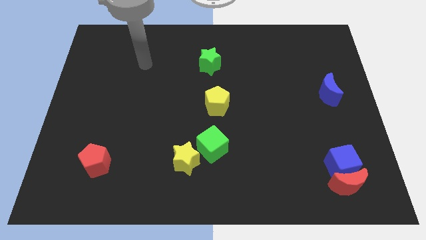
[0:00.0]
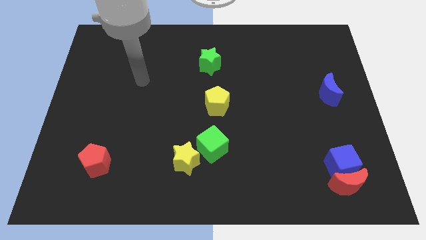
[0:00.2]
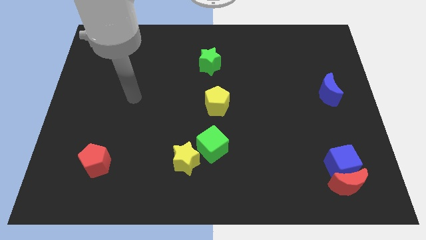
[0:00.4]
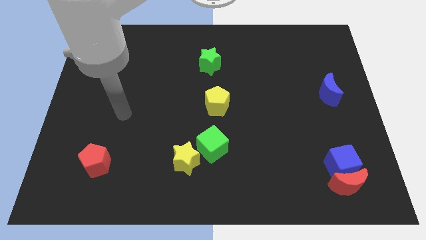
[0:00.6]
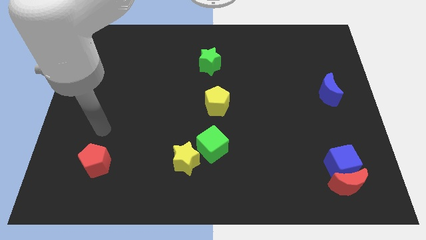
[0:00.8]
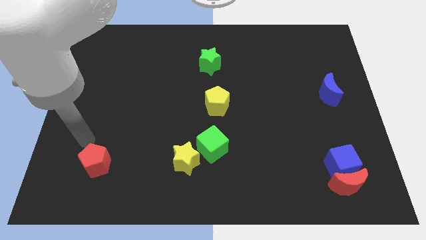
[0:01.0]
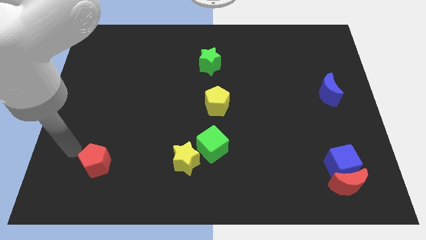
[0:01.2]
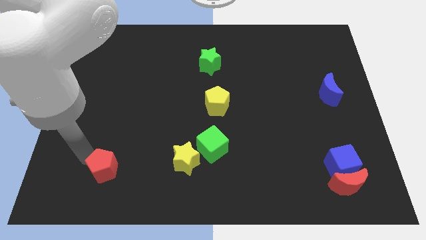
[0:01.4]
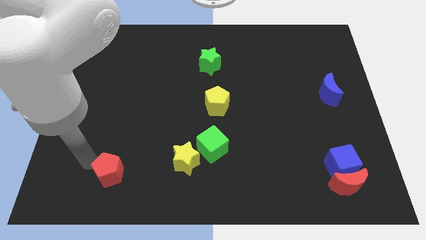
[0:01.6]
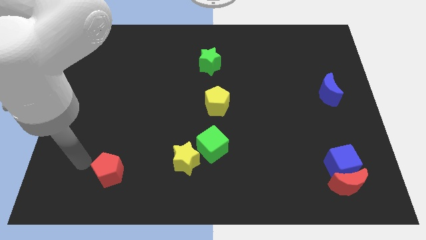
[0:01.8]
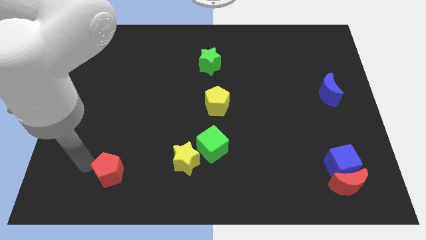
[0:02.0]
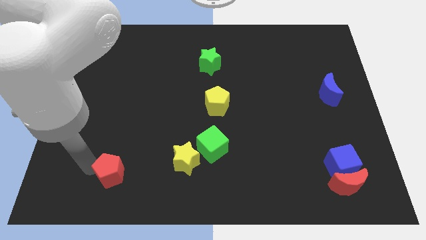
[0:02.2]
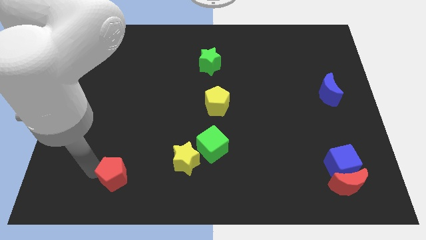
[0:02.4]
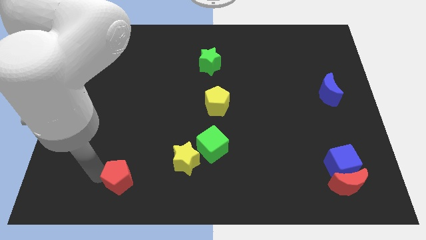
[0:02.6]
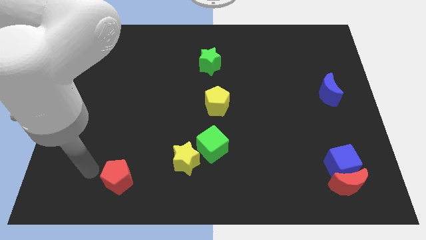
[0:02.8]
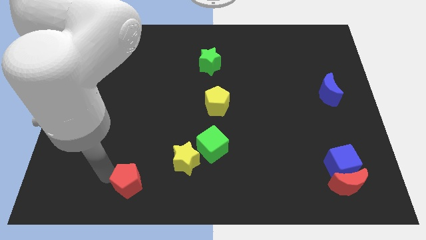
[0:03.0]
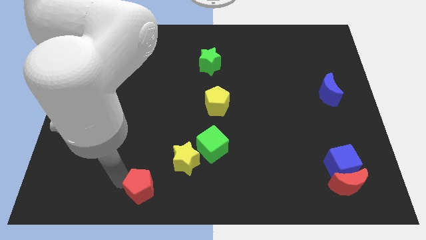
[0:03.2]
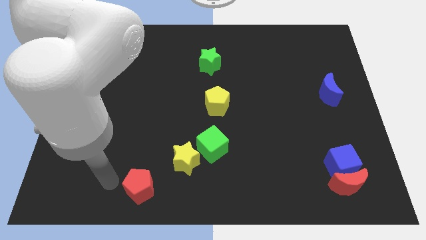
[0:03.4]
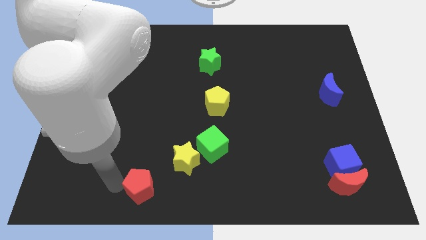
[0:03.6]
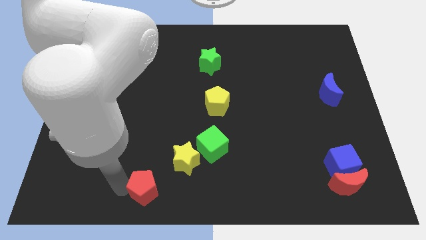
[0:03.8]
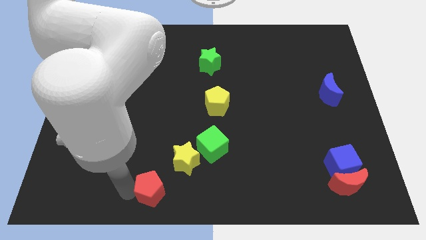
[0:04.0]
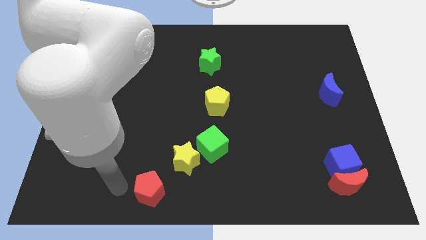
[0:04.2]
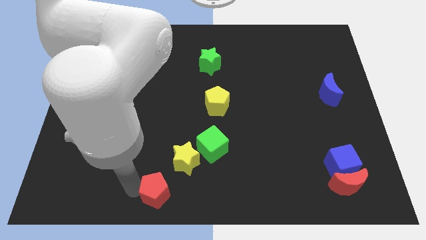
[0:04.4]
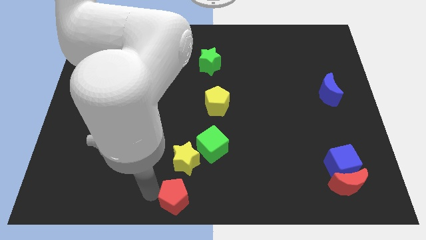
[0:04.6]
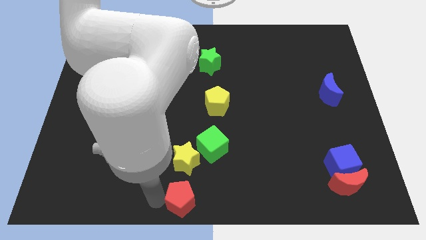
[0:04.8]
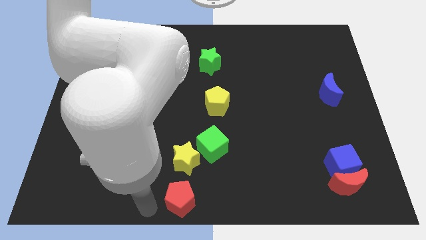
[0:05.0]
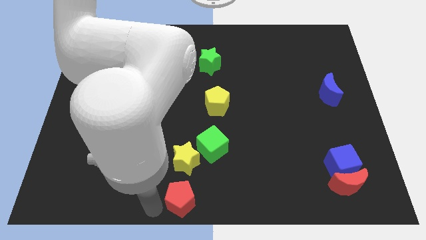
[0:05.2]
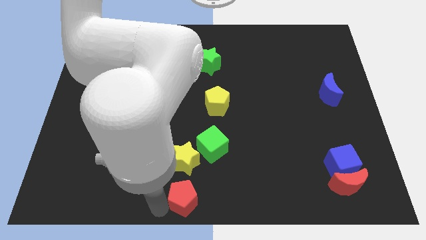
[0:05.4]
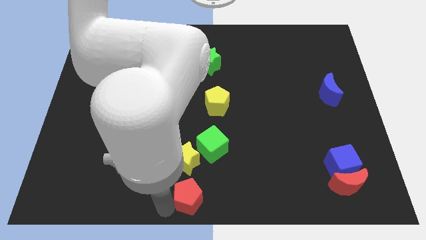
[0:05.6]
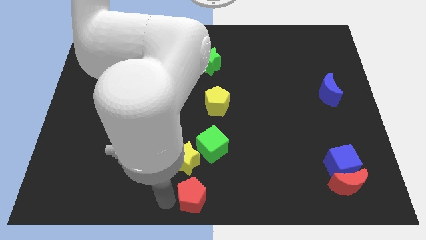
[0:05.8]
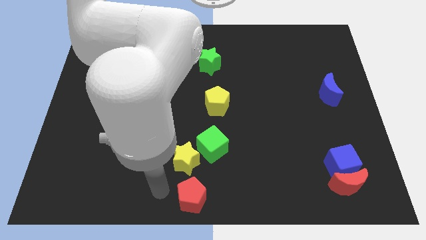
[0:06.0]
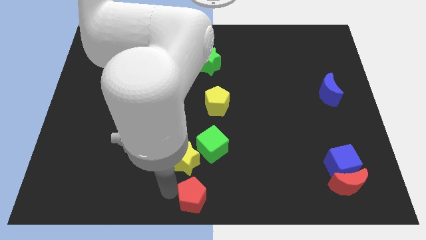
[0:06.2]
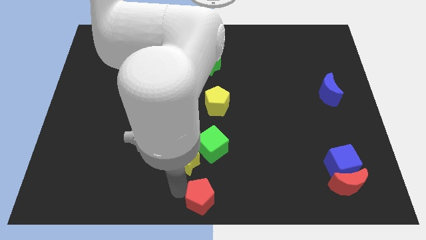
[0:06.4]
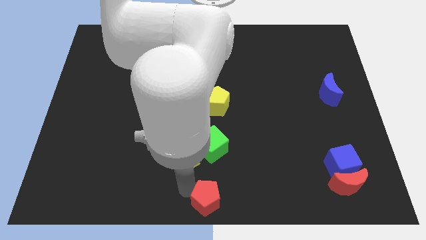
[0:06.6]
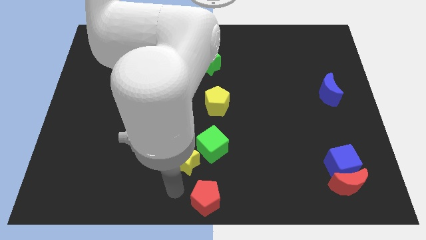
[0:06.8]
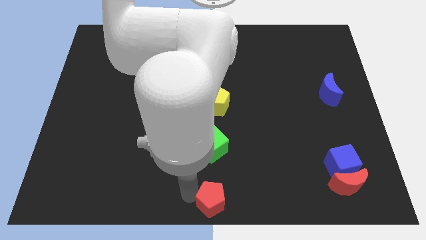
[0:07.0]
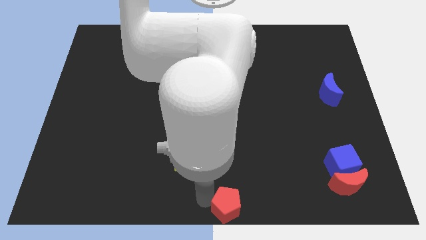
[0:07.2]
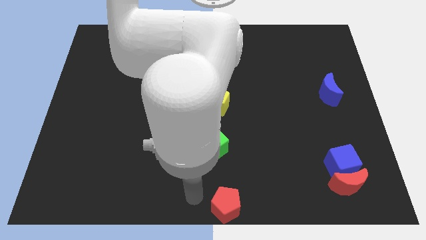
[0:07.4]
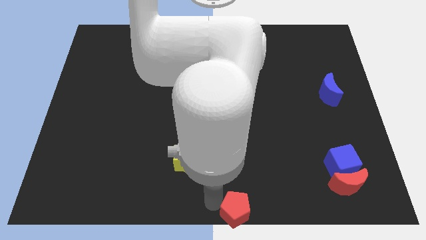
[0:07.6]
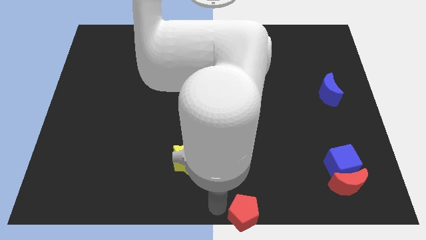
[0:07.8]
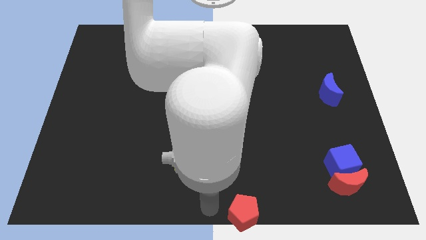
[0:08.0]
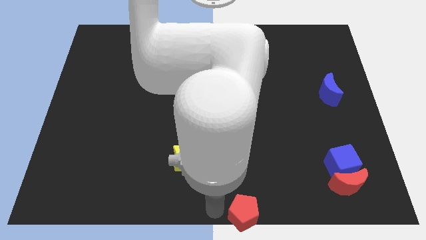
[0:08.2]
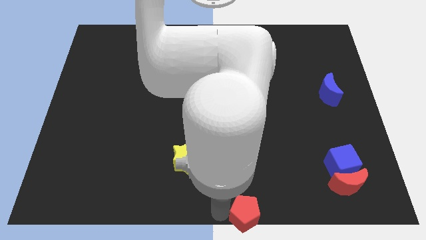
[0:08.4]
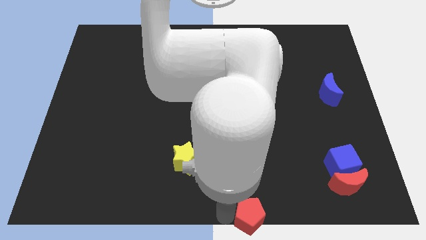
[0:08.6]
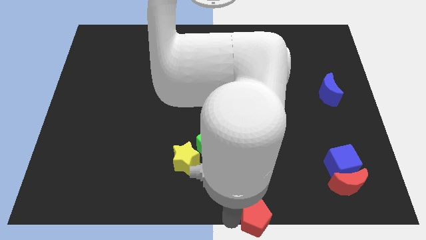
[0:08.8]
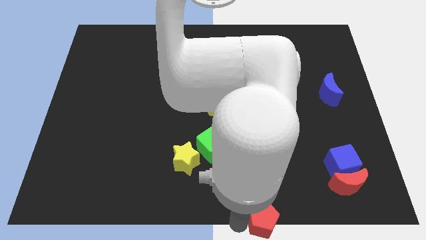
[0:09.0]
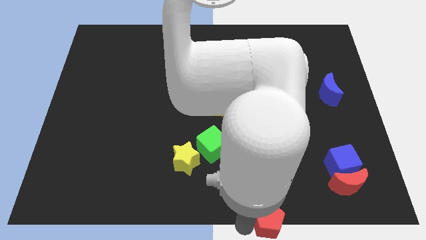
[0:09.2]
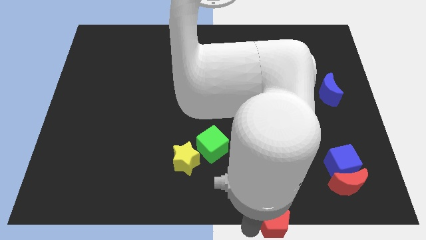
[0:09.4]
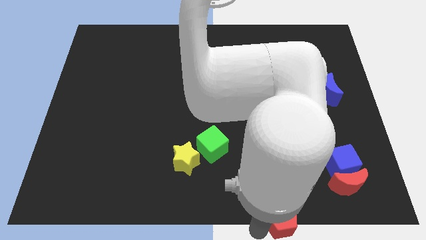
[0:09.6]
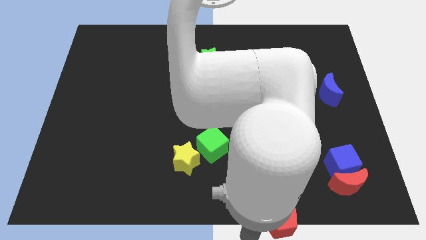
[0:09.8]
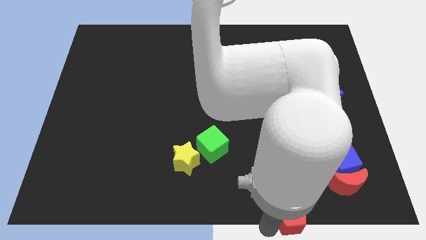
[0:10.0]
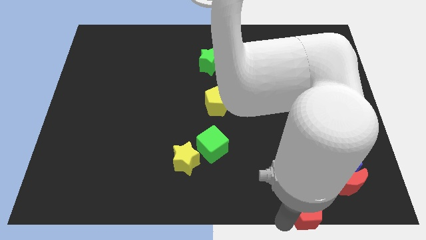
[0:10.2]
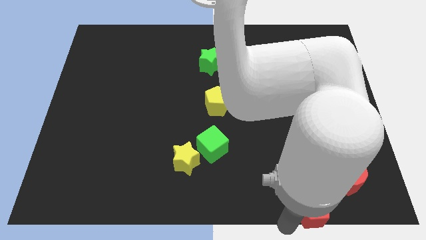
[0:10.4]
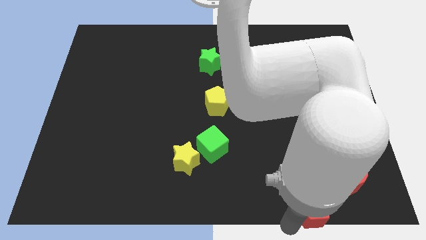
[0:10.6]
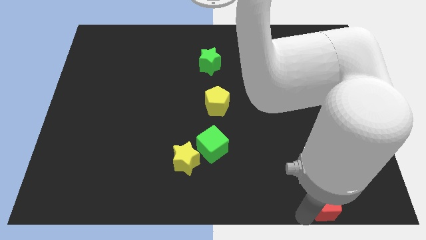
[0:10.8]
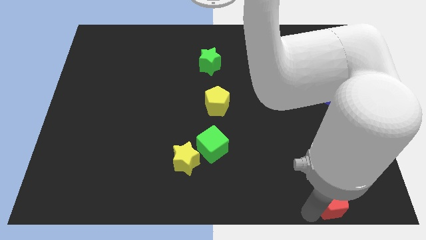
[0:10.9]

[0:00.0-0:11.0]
move the red pentagon close to the red moon

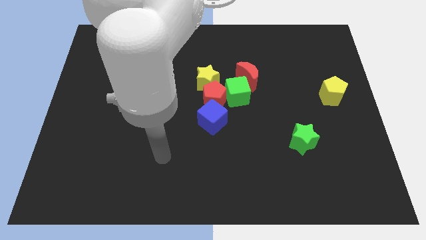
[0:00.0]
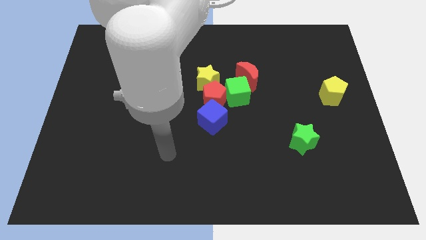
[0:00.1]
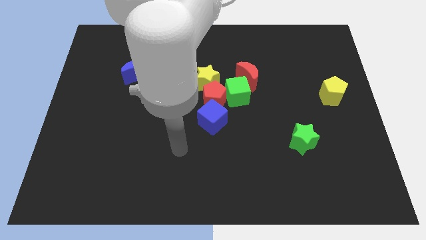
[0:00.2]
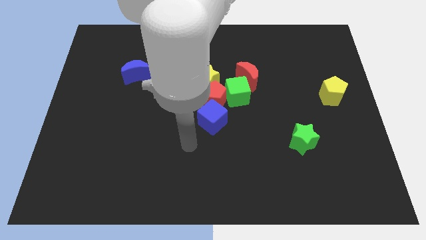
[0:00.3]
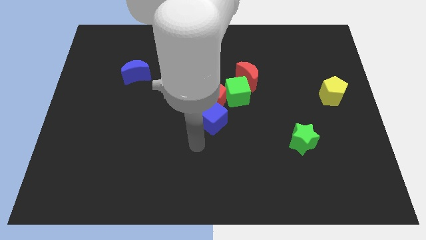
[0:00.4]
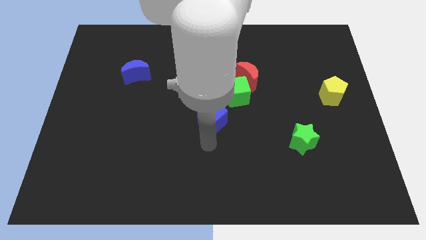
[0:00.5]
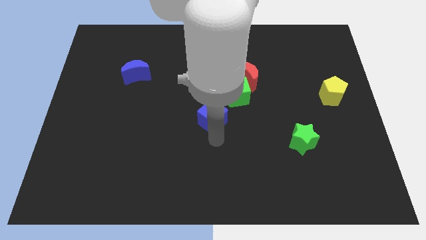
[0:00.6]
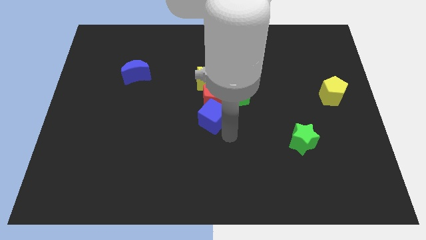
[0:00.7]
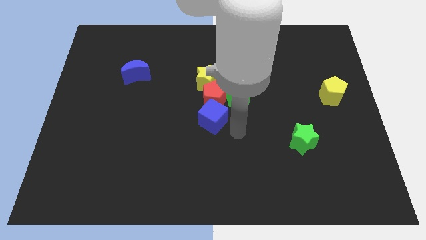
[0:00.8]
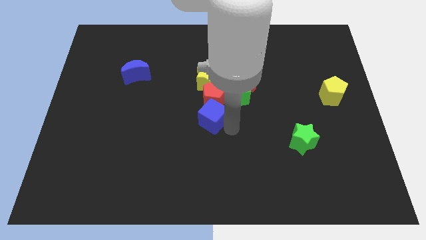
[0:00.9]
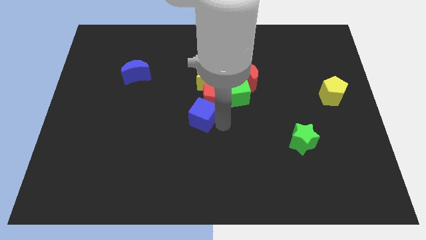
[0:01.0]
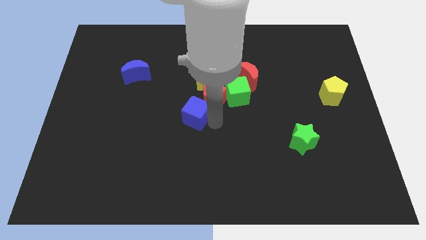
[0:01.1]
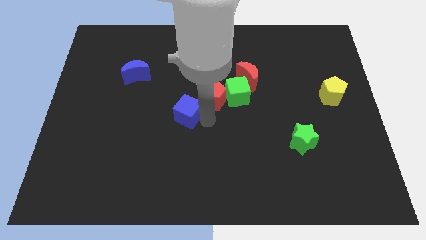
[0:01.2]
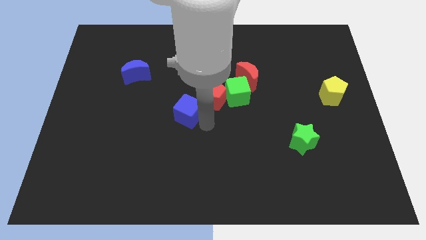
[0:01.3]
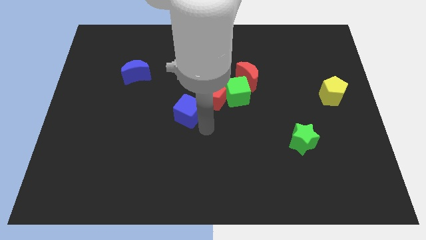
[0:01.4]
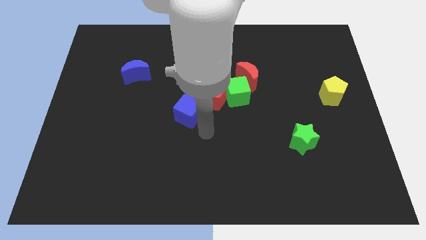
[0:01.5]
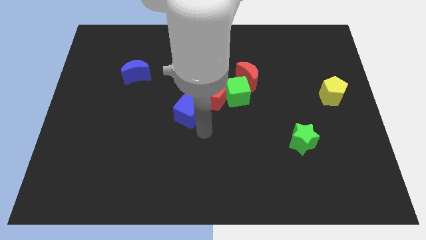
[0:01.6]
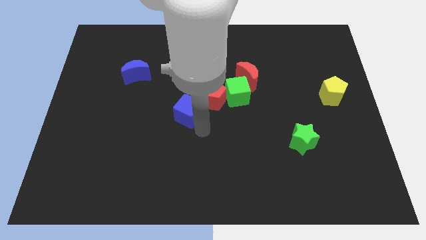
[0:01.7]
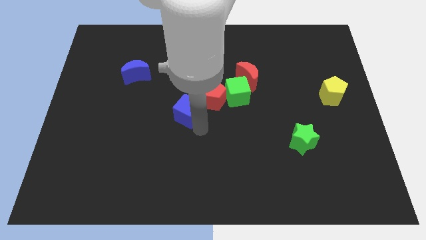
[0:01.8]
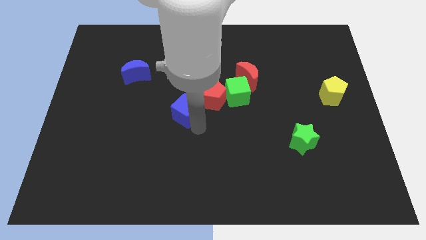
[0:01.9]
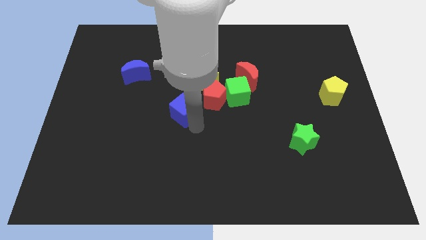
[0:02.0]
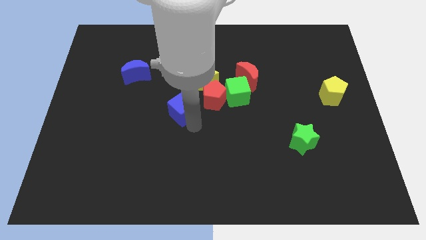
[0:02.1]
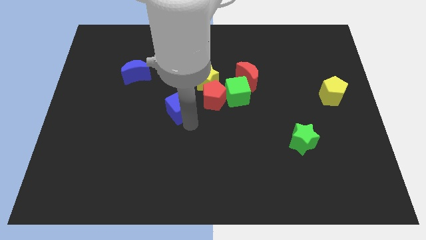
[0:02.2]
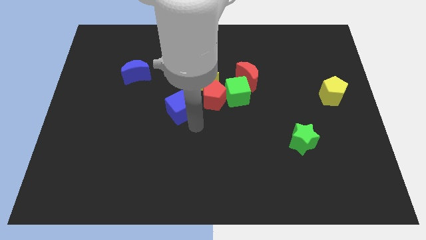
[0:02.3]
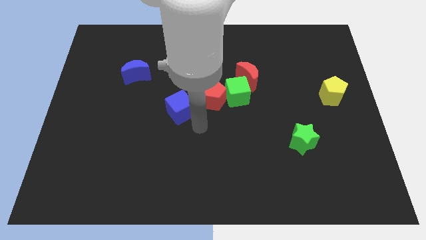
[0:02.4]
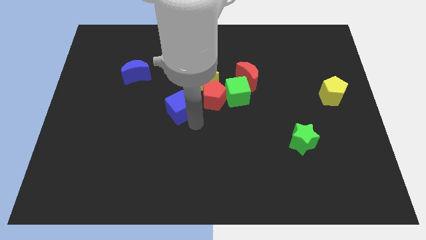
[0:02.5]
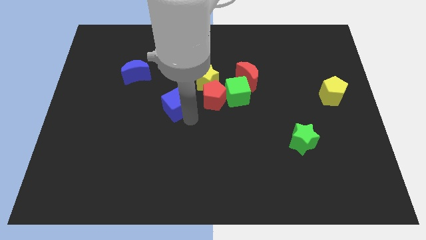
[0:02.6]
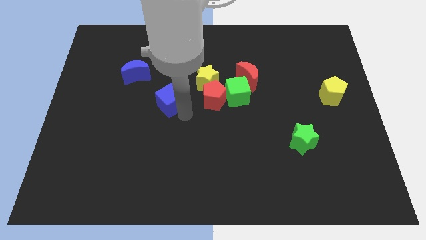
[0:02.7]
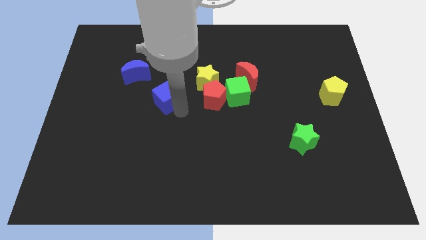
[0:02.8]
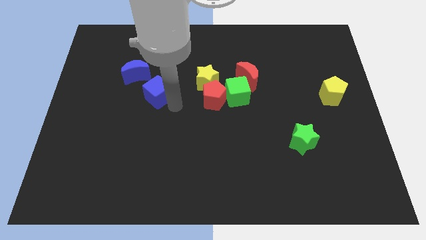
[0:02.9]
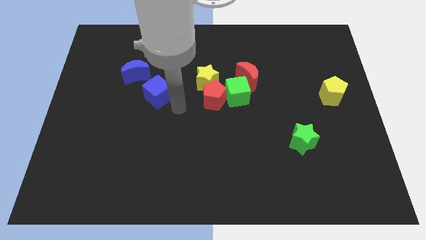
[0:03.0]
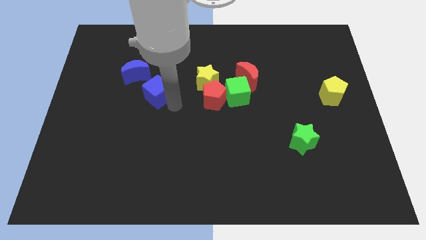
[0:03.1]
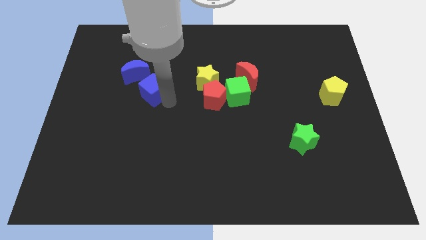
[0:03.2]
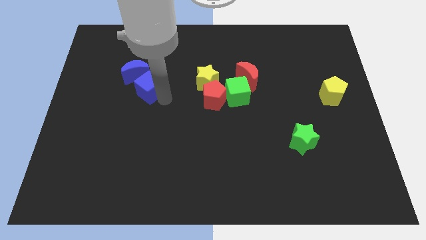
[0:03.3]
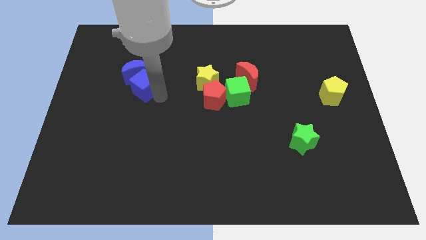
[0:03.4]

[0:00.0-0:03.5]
move the blue cube close to the blue moon
